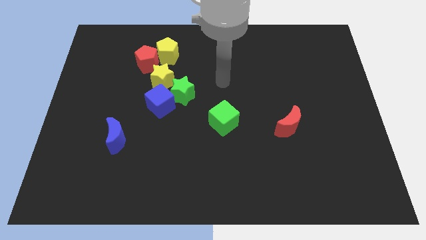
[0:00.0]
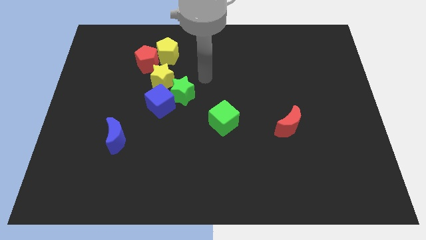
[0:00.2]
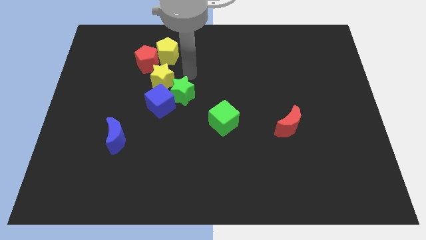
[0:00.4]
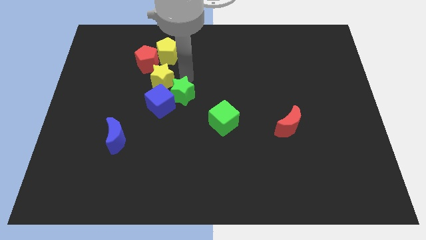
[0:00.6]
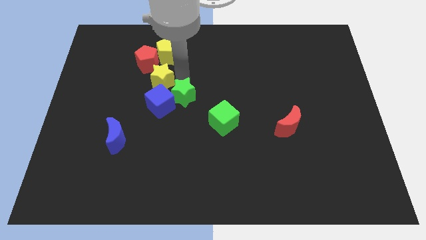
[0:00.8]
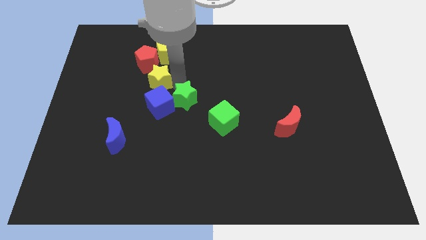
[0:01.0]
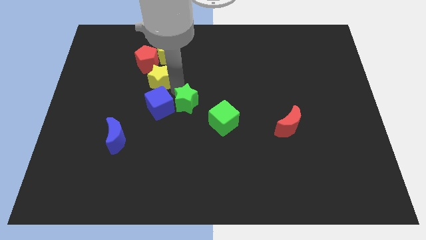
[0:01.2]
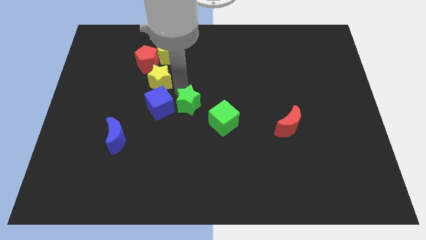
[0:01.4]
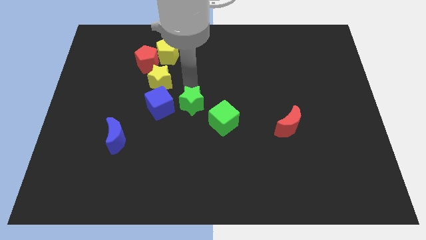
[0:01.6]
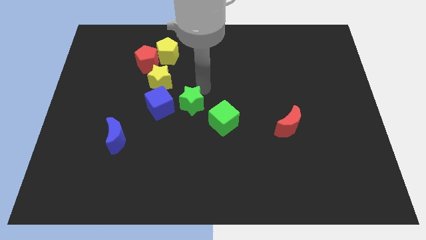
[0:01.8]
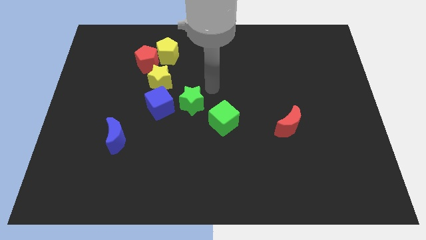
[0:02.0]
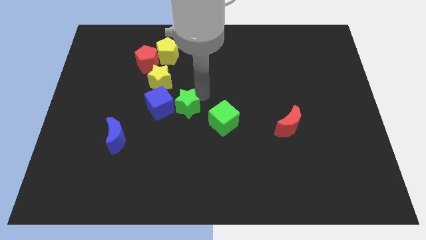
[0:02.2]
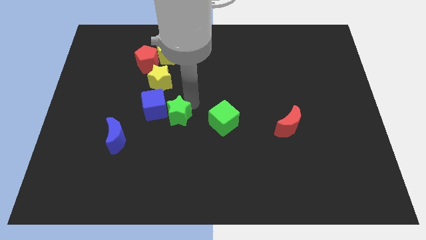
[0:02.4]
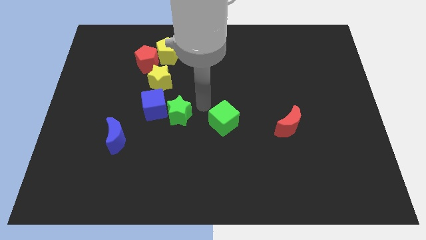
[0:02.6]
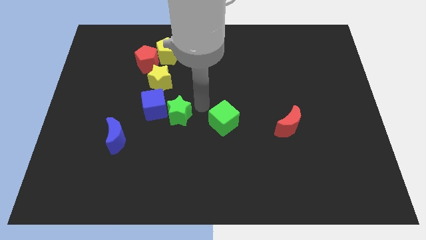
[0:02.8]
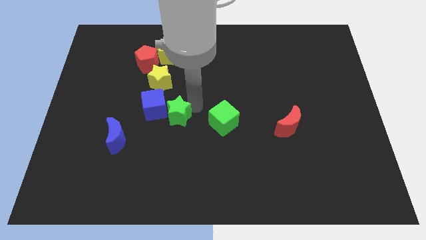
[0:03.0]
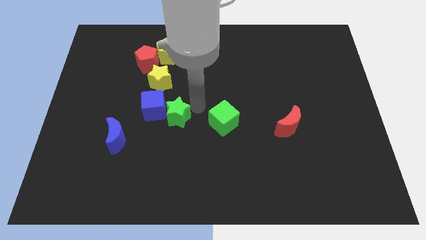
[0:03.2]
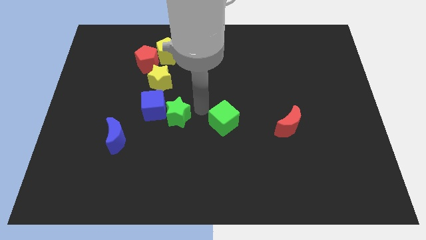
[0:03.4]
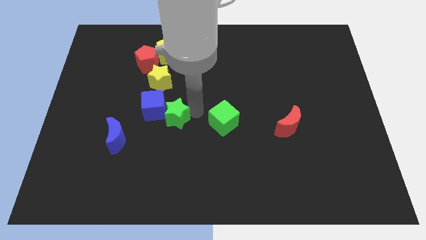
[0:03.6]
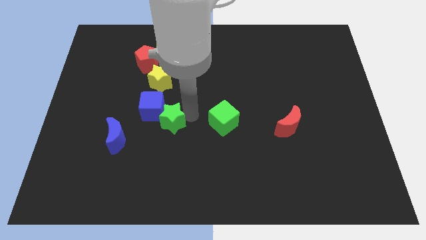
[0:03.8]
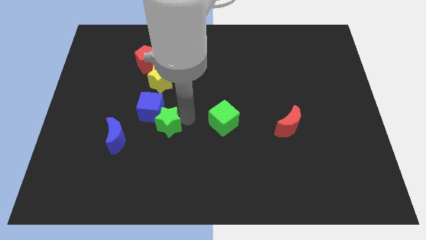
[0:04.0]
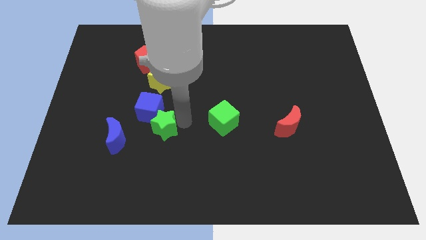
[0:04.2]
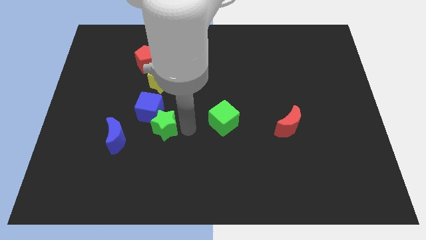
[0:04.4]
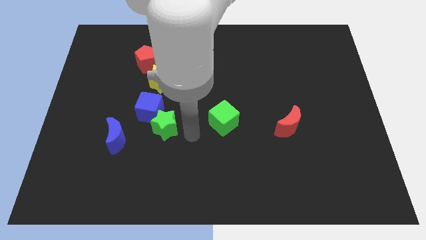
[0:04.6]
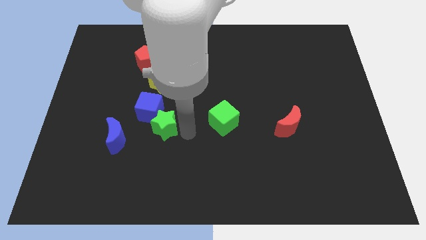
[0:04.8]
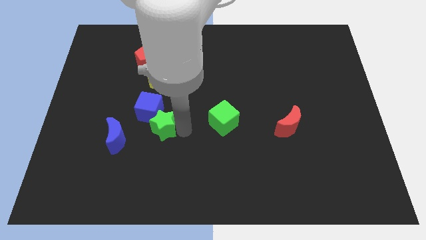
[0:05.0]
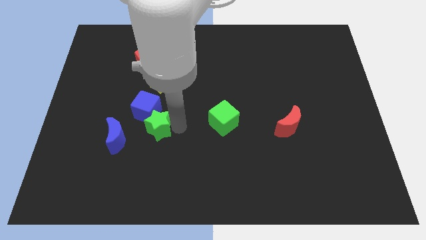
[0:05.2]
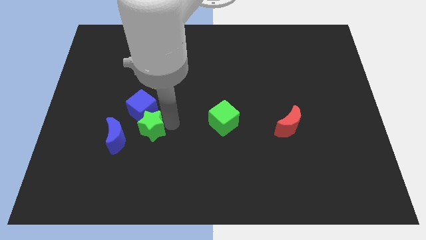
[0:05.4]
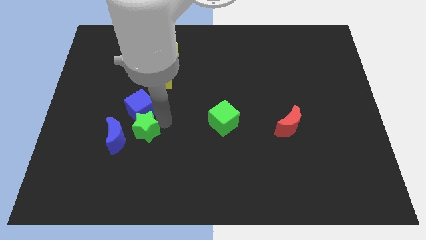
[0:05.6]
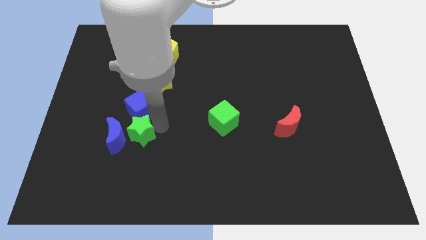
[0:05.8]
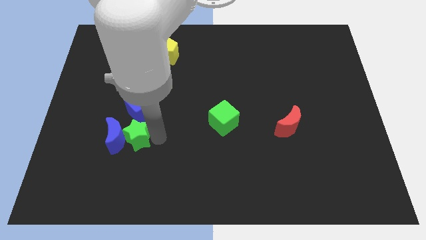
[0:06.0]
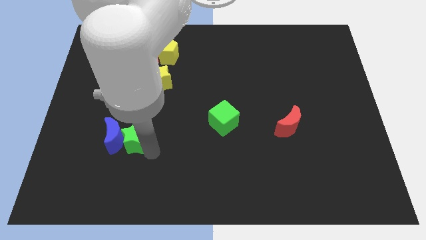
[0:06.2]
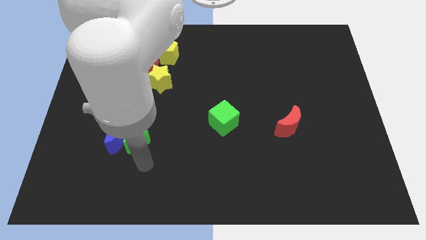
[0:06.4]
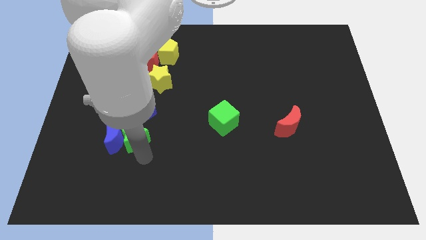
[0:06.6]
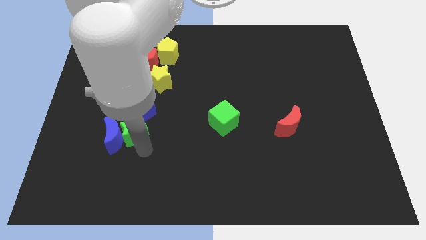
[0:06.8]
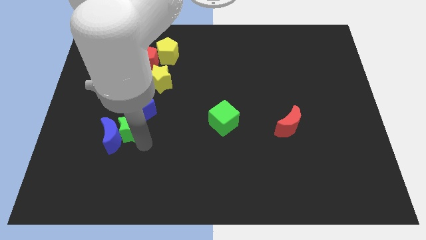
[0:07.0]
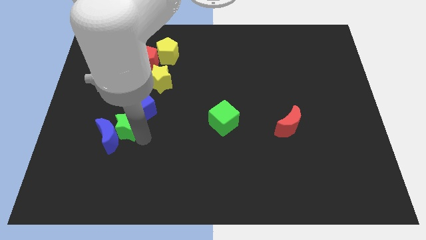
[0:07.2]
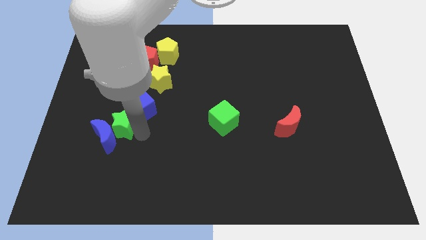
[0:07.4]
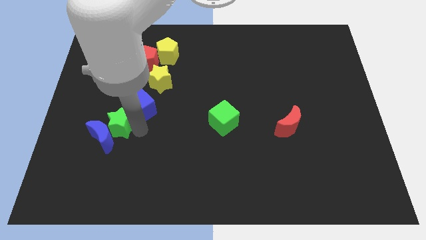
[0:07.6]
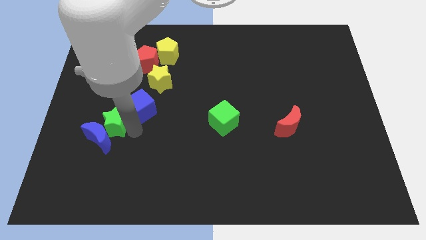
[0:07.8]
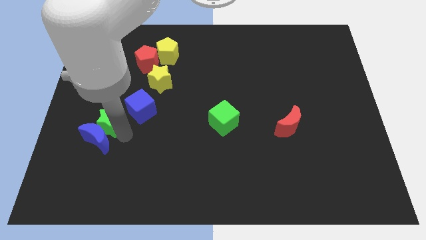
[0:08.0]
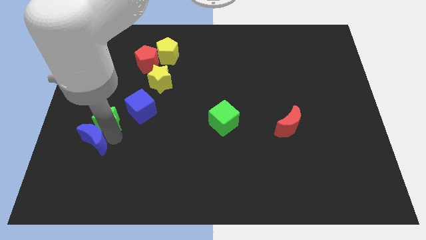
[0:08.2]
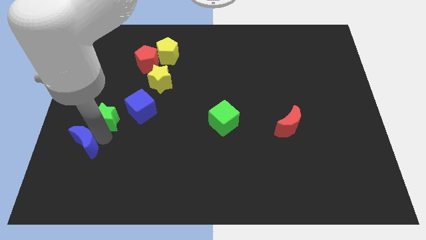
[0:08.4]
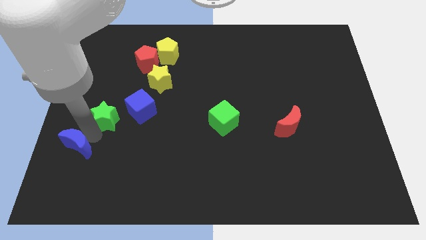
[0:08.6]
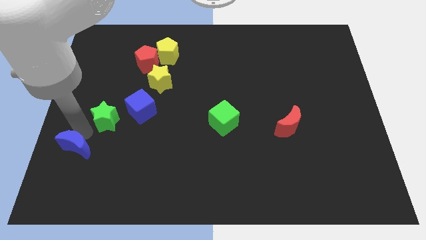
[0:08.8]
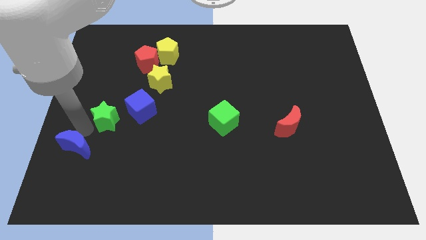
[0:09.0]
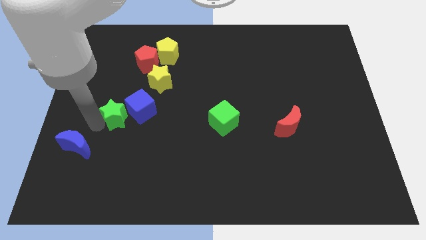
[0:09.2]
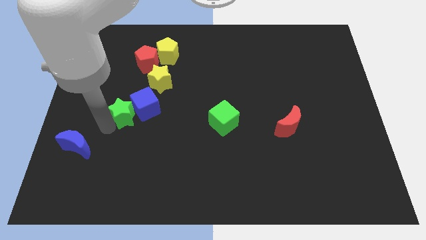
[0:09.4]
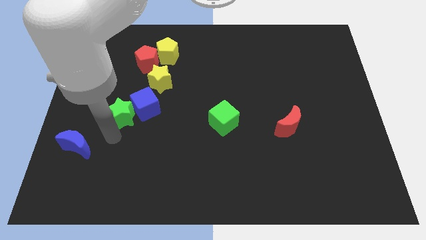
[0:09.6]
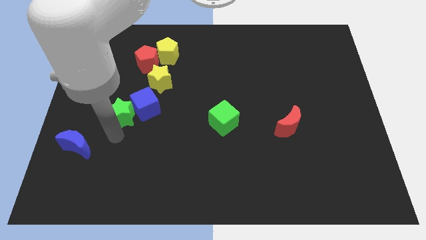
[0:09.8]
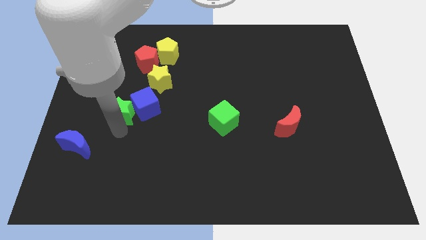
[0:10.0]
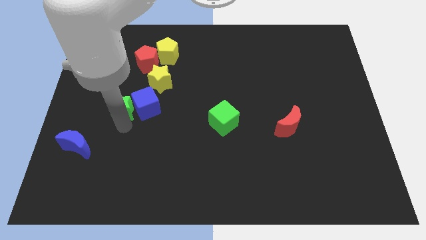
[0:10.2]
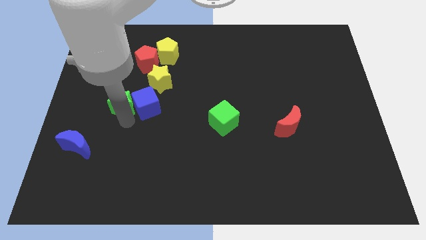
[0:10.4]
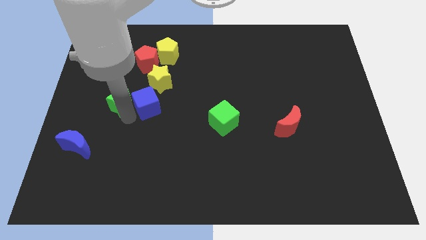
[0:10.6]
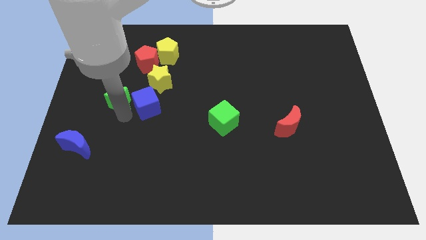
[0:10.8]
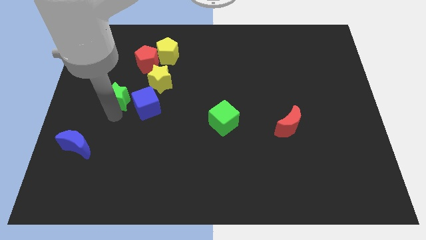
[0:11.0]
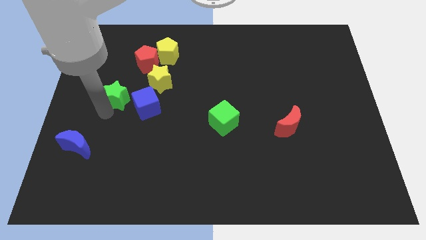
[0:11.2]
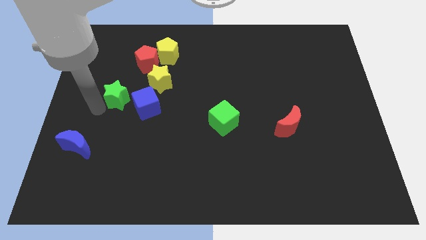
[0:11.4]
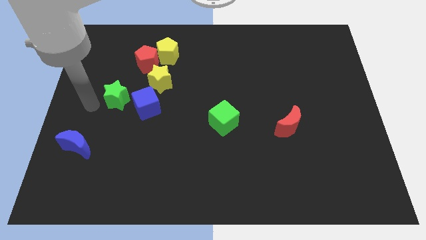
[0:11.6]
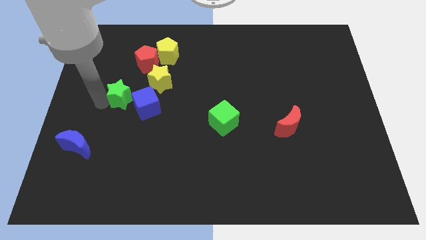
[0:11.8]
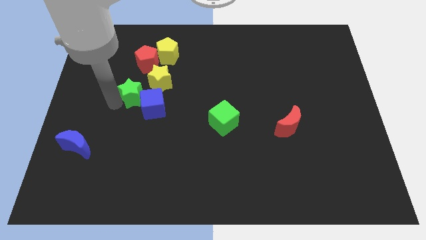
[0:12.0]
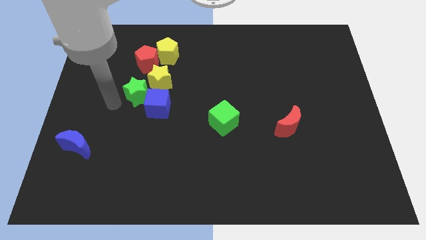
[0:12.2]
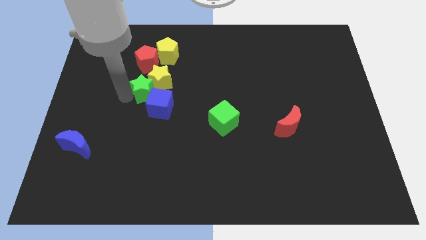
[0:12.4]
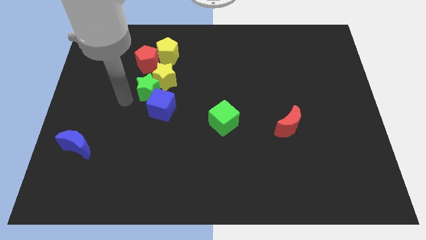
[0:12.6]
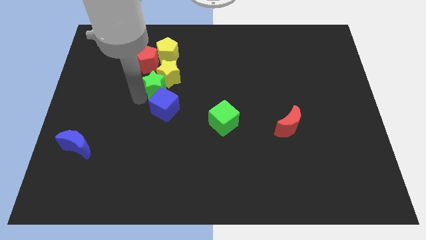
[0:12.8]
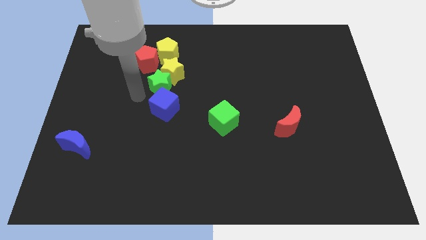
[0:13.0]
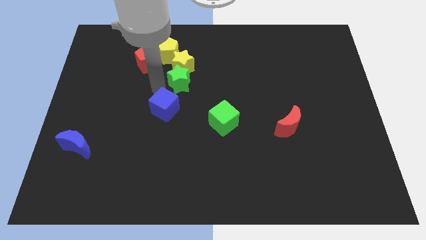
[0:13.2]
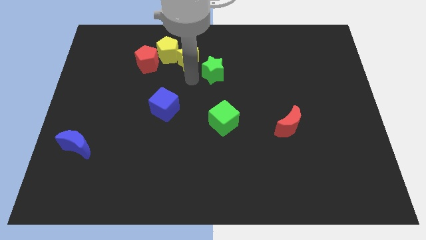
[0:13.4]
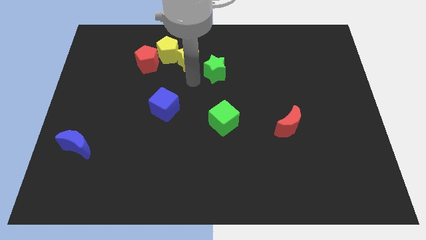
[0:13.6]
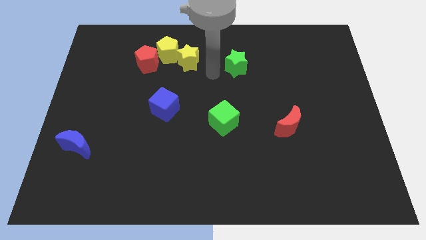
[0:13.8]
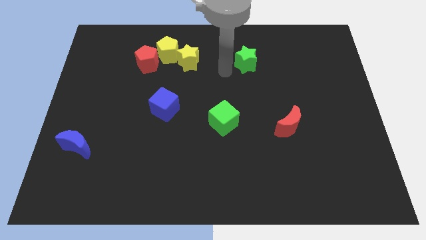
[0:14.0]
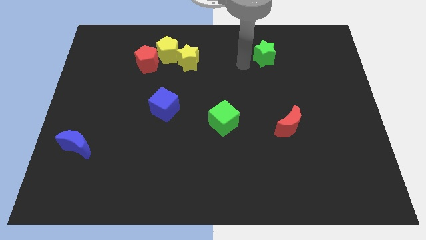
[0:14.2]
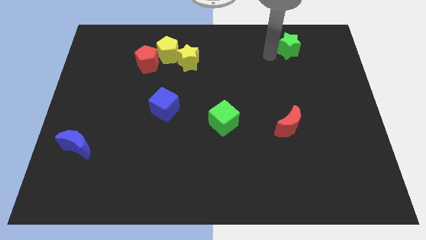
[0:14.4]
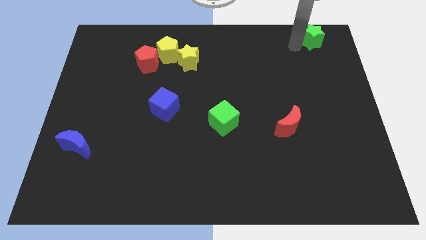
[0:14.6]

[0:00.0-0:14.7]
put the green star to the top right of the board
